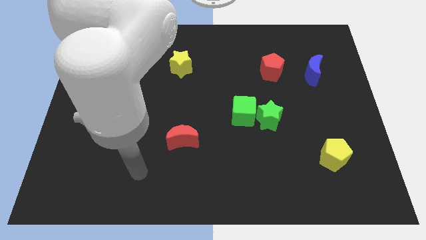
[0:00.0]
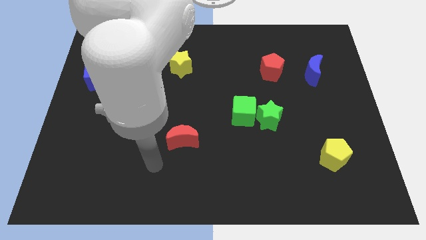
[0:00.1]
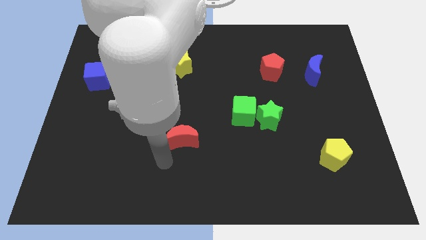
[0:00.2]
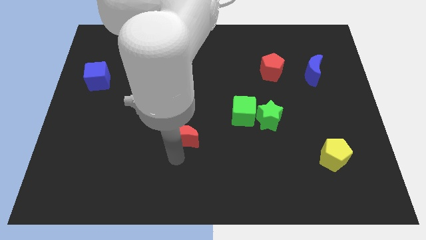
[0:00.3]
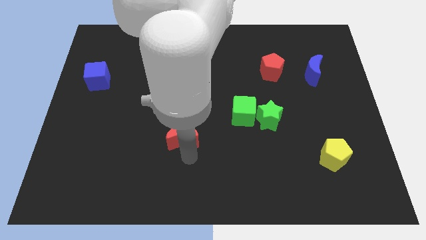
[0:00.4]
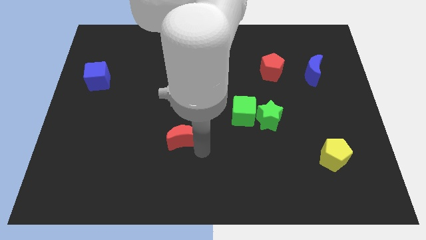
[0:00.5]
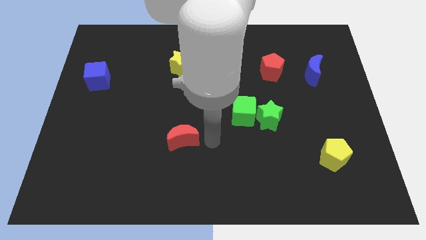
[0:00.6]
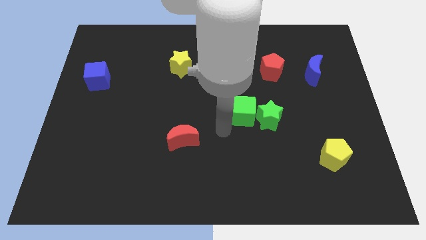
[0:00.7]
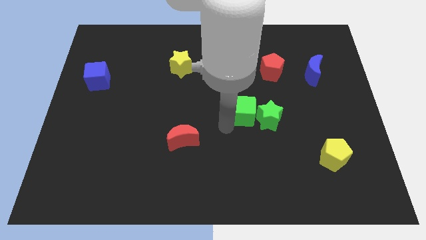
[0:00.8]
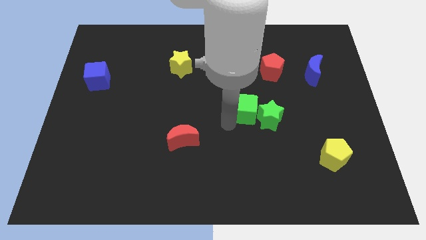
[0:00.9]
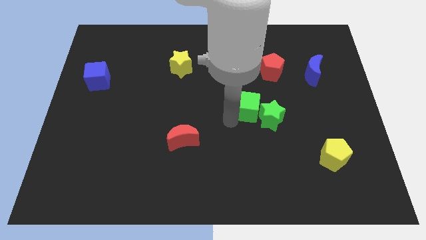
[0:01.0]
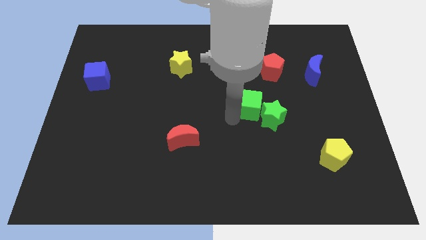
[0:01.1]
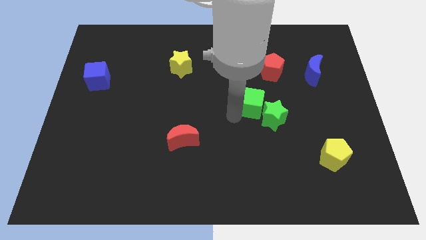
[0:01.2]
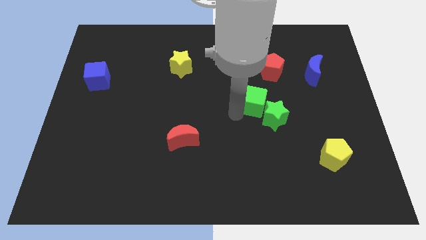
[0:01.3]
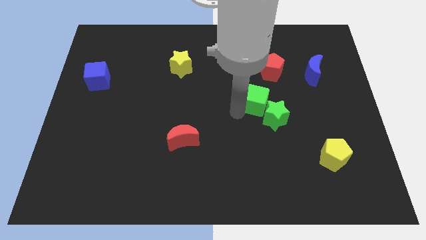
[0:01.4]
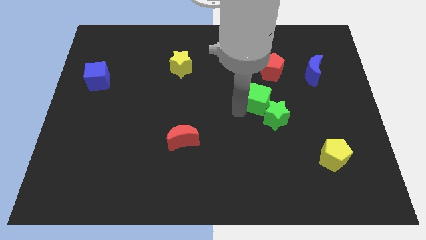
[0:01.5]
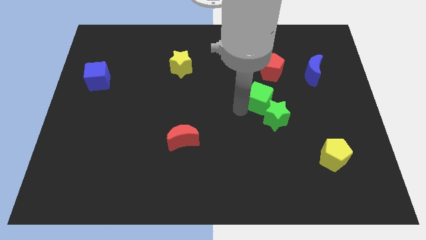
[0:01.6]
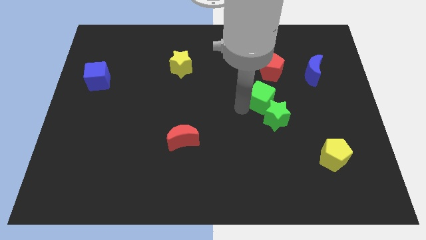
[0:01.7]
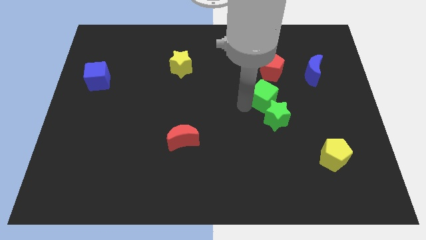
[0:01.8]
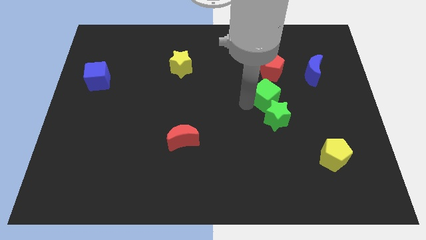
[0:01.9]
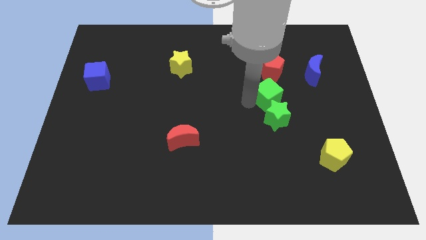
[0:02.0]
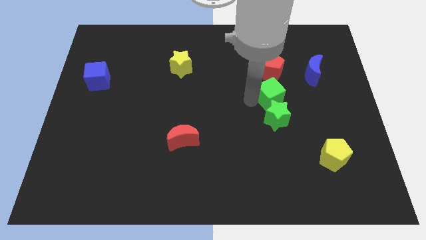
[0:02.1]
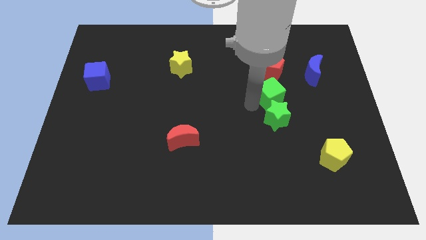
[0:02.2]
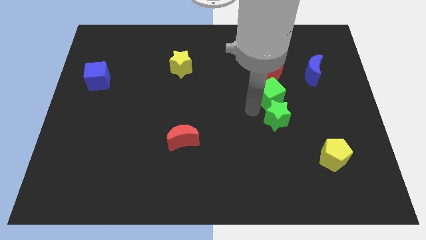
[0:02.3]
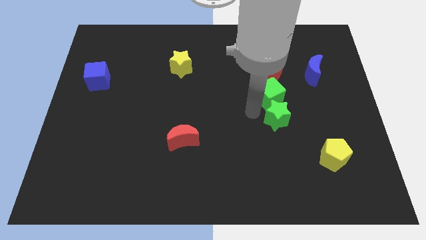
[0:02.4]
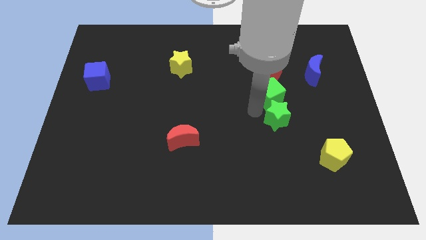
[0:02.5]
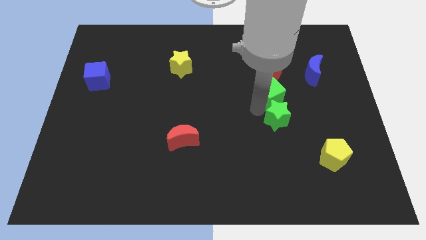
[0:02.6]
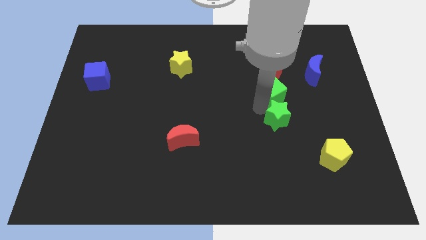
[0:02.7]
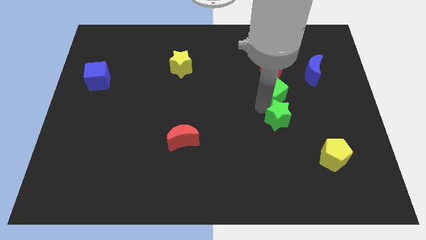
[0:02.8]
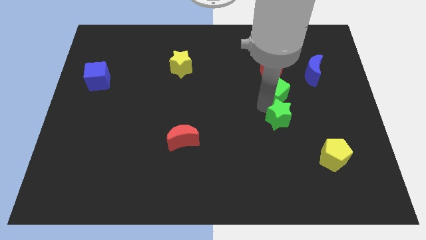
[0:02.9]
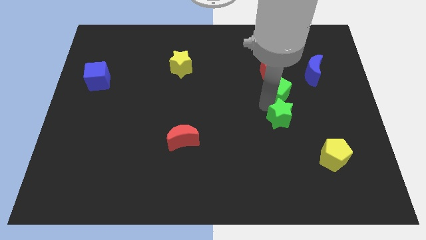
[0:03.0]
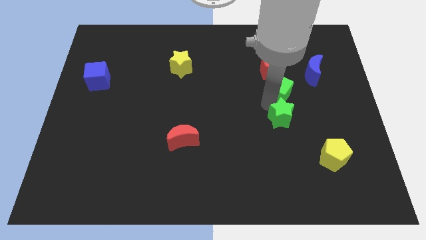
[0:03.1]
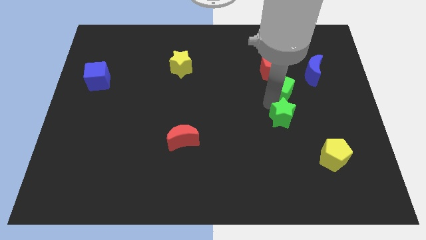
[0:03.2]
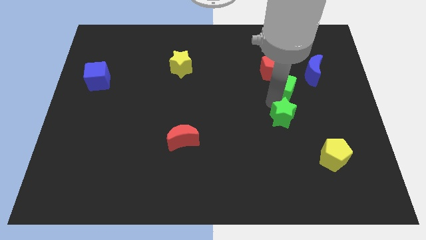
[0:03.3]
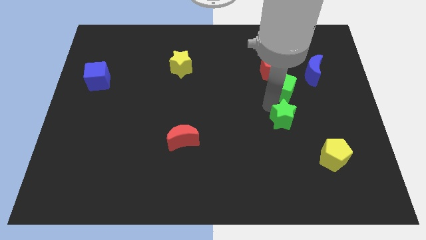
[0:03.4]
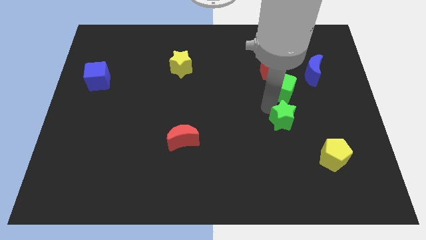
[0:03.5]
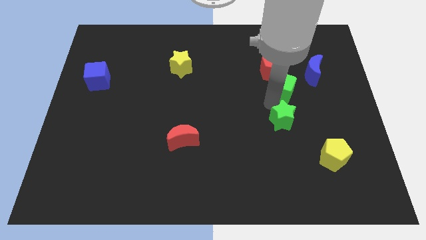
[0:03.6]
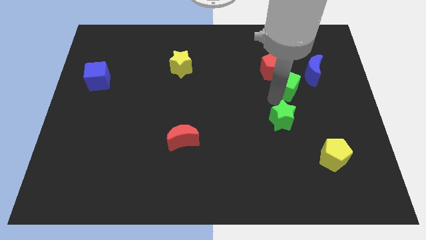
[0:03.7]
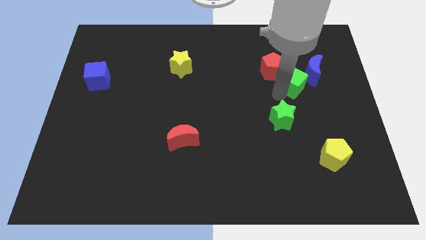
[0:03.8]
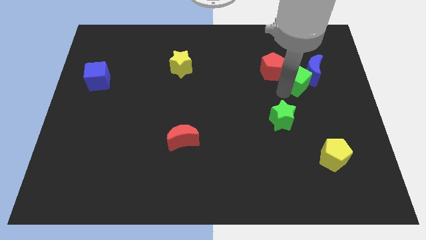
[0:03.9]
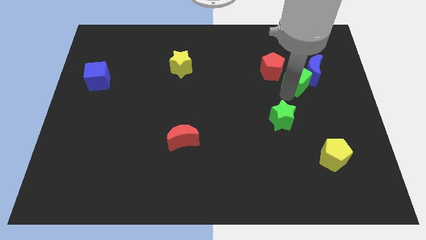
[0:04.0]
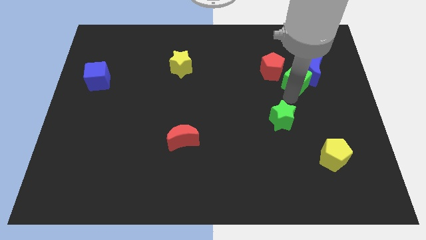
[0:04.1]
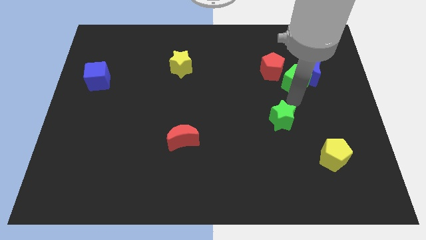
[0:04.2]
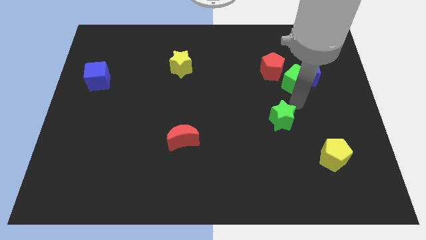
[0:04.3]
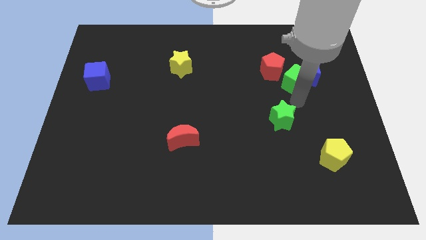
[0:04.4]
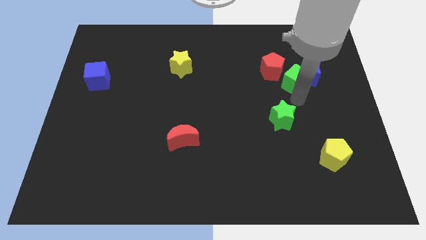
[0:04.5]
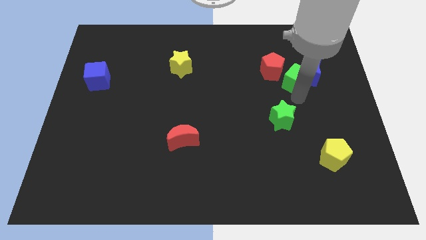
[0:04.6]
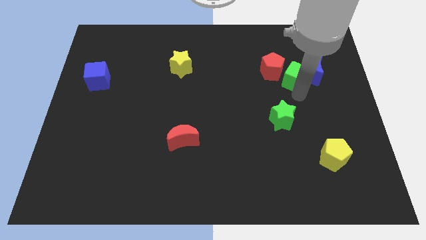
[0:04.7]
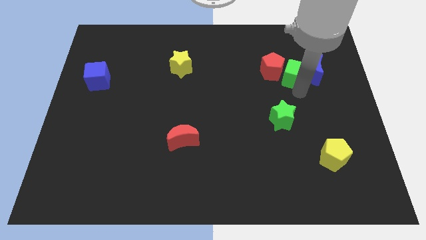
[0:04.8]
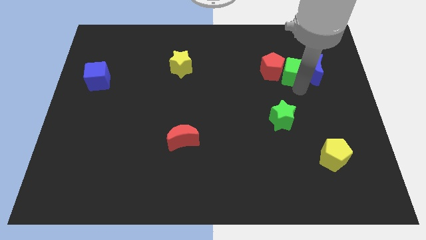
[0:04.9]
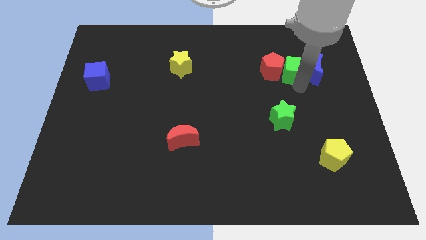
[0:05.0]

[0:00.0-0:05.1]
slide the green cube to the top right of the red pentagon

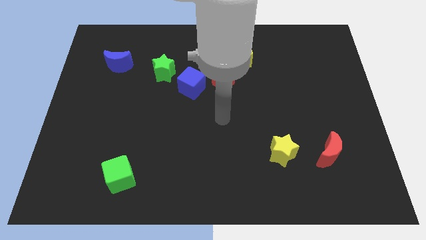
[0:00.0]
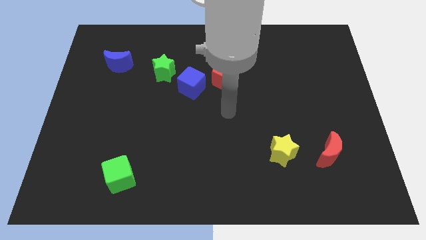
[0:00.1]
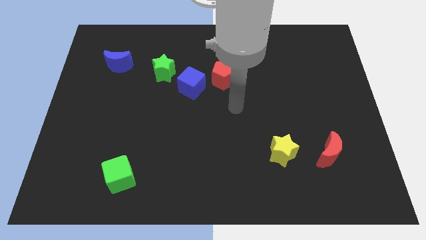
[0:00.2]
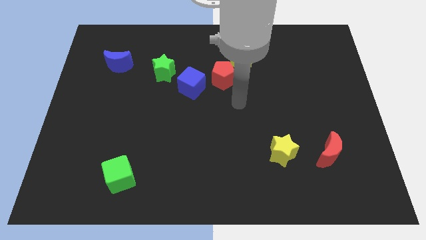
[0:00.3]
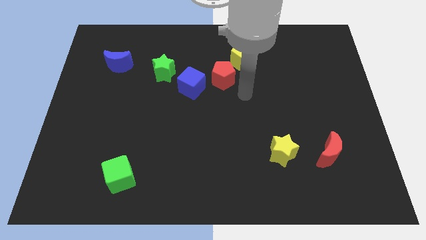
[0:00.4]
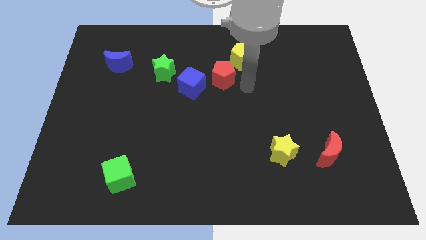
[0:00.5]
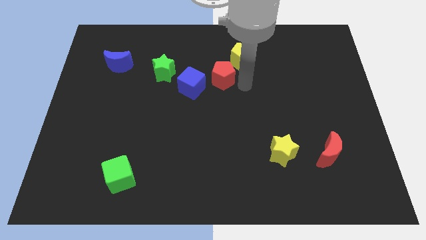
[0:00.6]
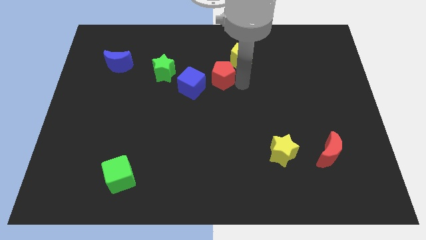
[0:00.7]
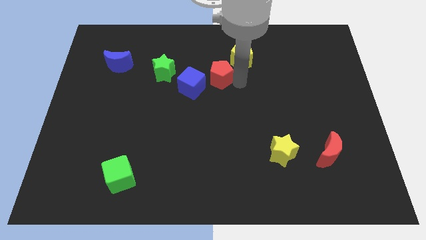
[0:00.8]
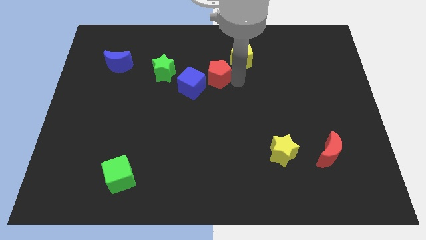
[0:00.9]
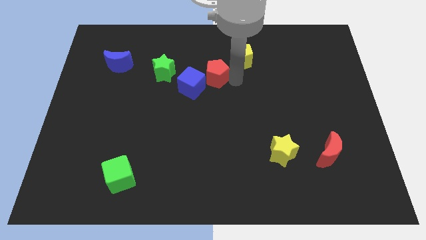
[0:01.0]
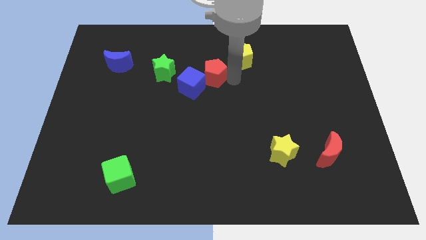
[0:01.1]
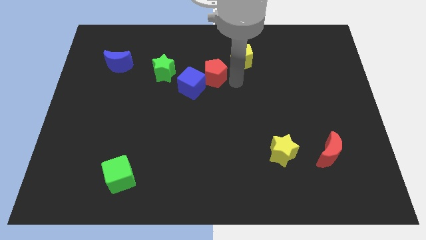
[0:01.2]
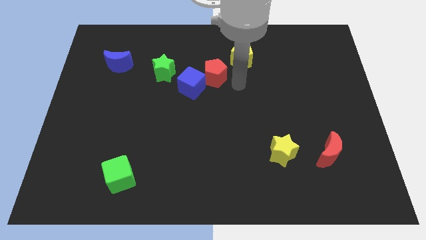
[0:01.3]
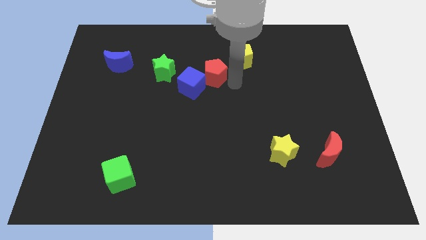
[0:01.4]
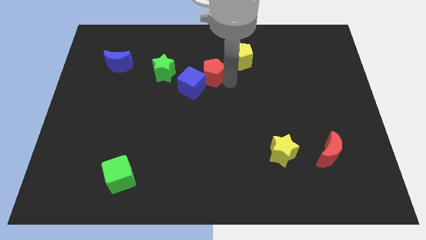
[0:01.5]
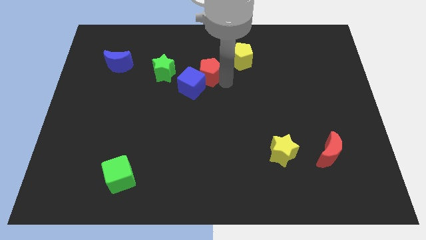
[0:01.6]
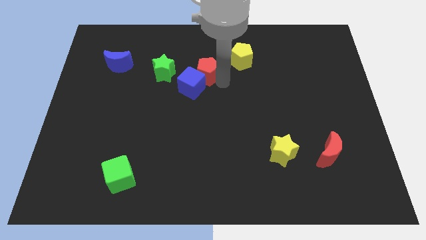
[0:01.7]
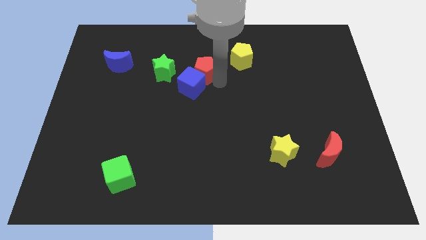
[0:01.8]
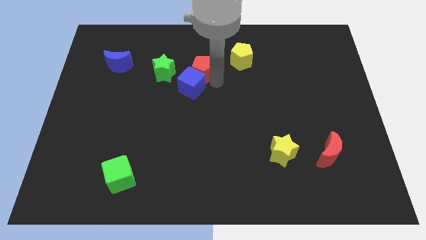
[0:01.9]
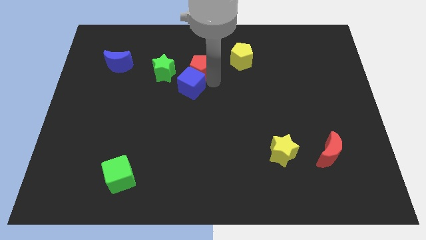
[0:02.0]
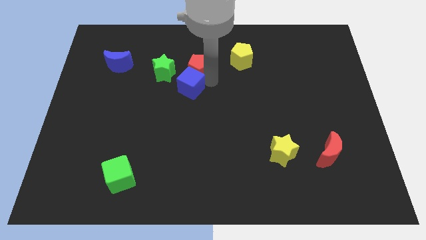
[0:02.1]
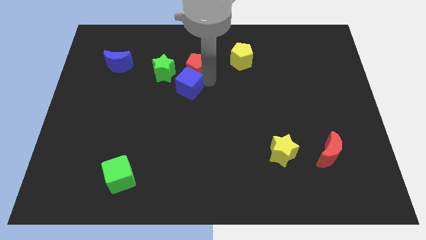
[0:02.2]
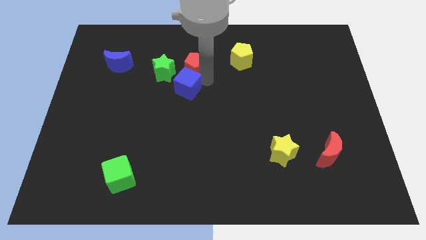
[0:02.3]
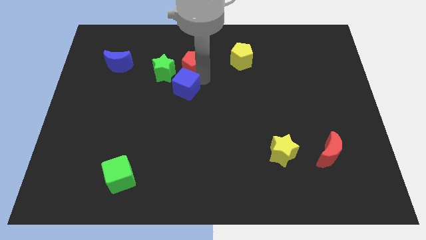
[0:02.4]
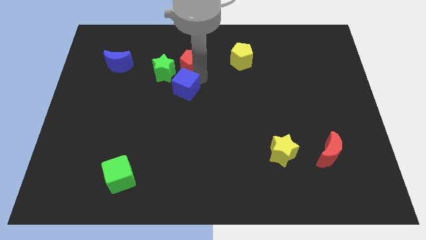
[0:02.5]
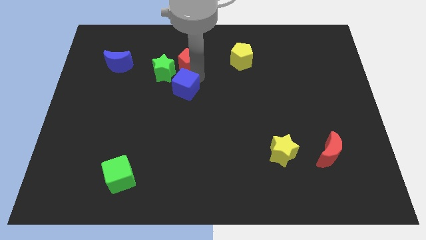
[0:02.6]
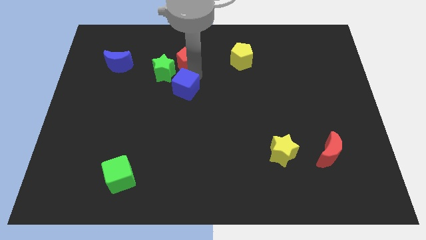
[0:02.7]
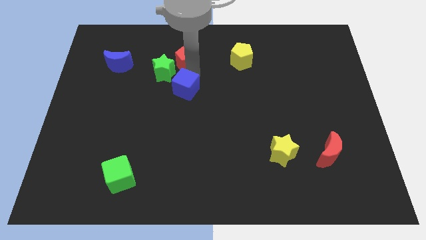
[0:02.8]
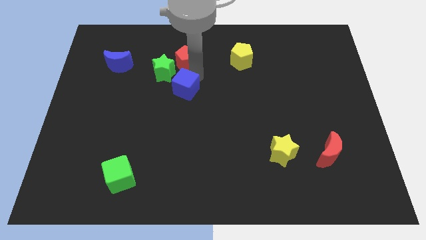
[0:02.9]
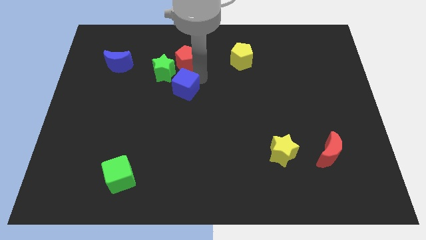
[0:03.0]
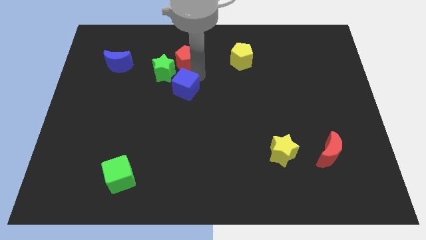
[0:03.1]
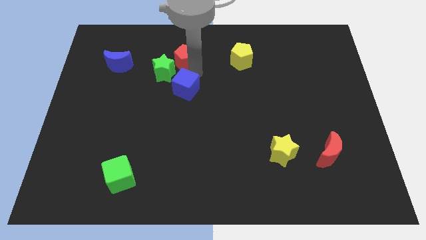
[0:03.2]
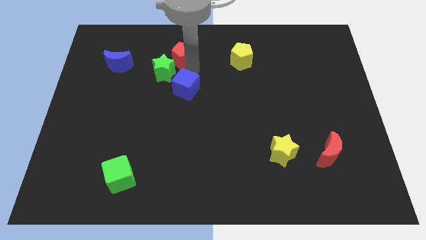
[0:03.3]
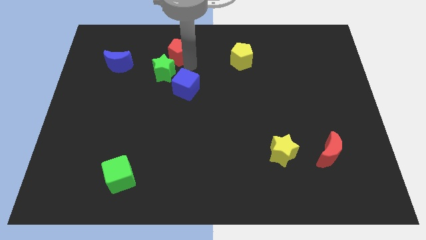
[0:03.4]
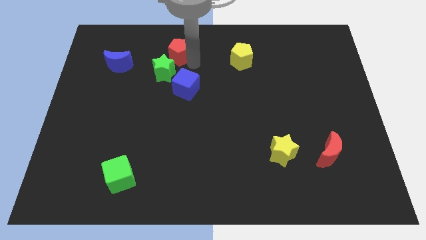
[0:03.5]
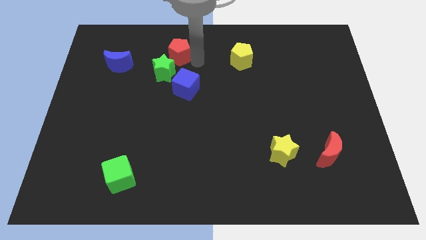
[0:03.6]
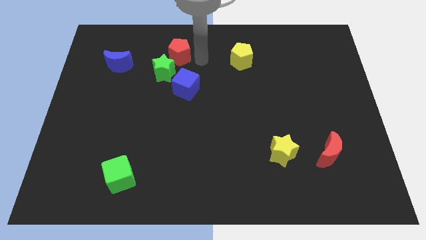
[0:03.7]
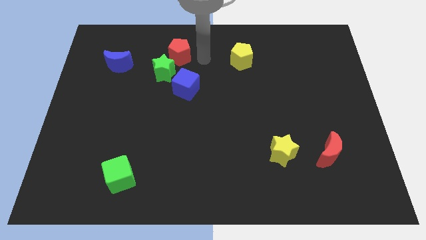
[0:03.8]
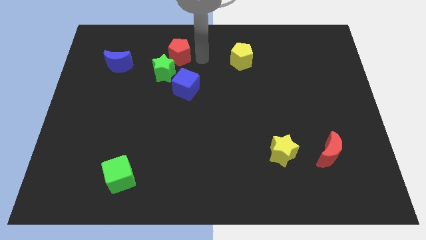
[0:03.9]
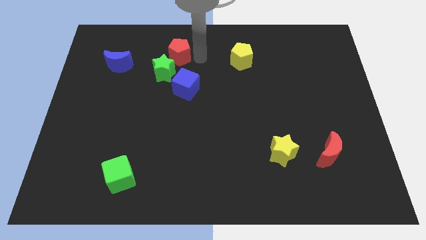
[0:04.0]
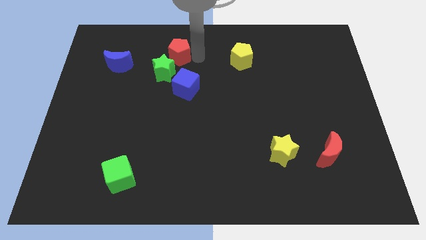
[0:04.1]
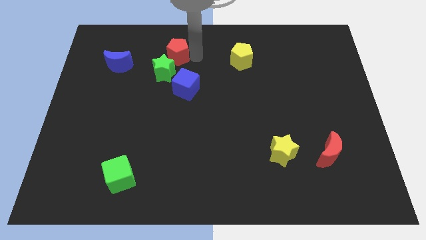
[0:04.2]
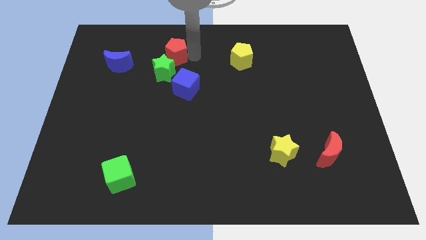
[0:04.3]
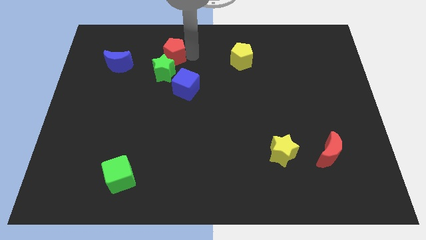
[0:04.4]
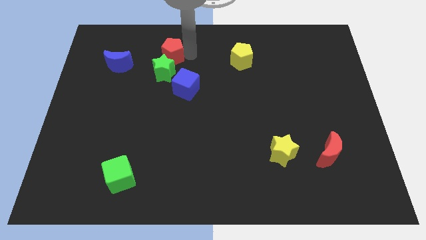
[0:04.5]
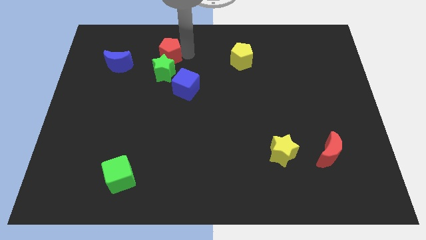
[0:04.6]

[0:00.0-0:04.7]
slide the red pentagon to the top left of the green star
